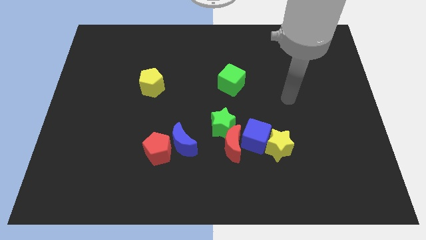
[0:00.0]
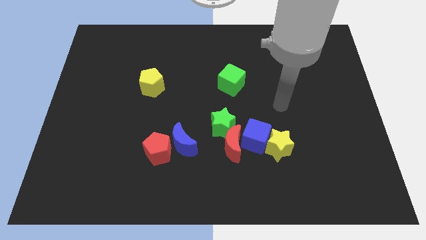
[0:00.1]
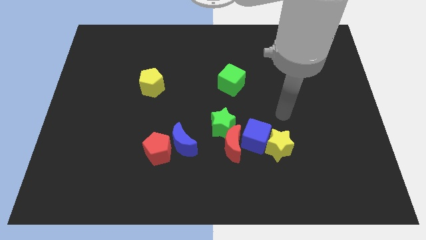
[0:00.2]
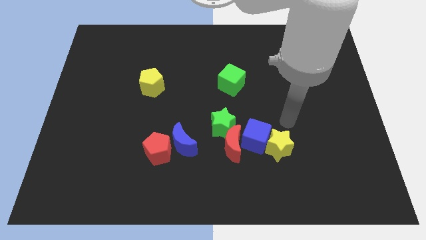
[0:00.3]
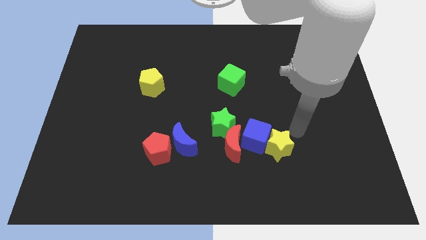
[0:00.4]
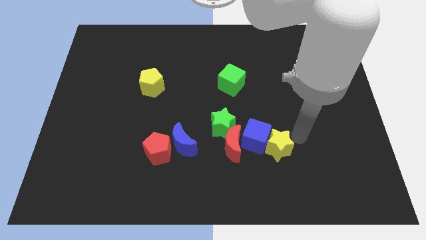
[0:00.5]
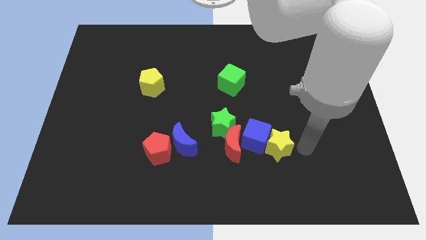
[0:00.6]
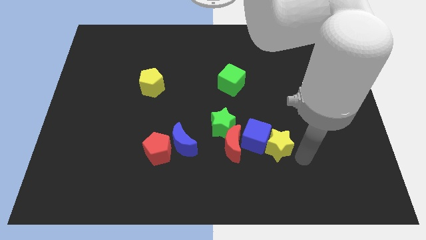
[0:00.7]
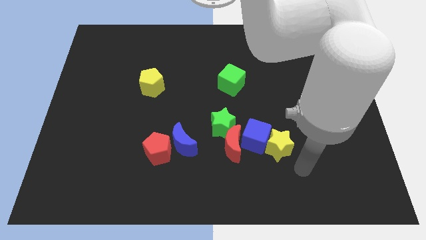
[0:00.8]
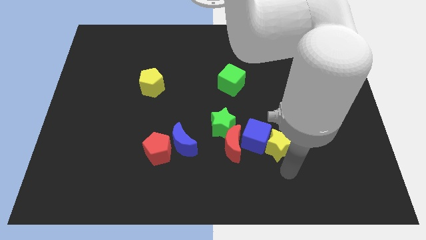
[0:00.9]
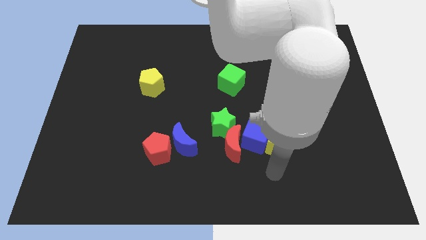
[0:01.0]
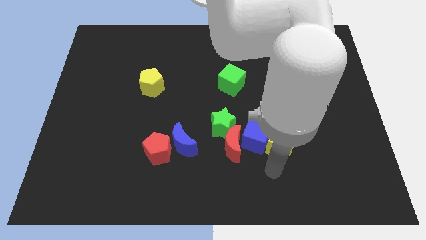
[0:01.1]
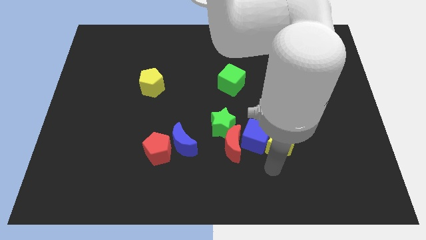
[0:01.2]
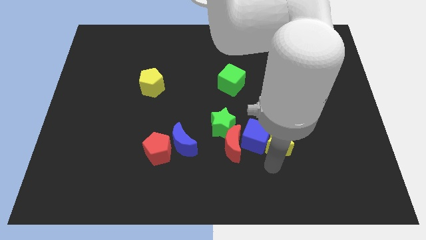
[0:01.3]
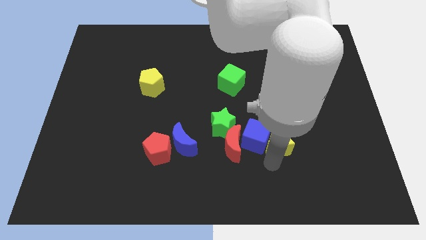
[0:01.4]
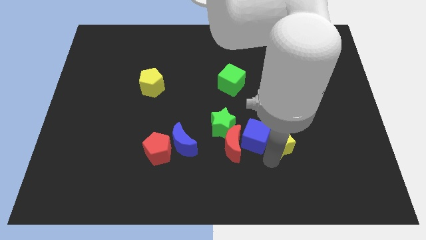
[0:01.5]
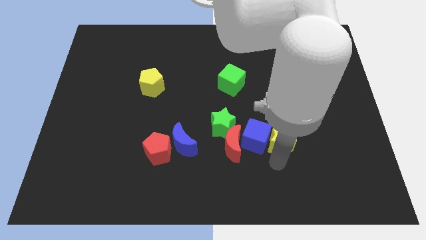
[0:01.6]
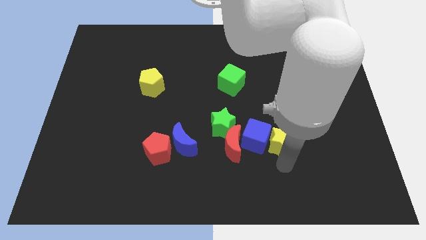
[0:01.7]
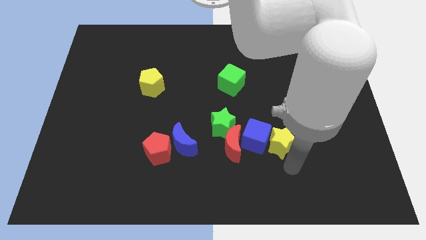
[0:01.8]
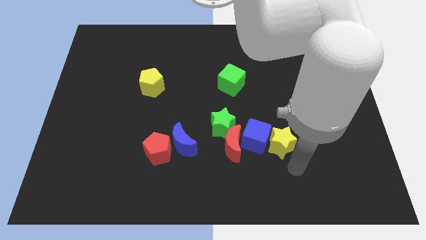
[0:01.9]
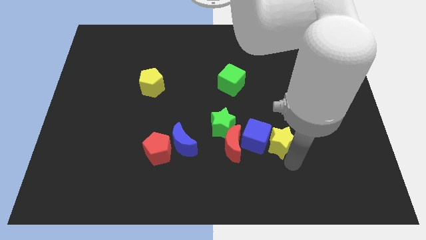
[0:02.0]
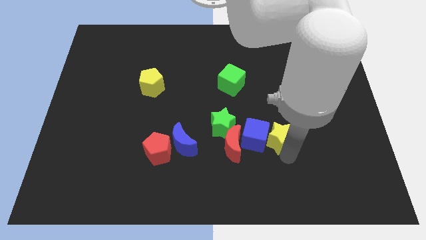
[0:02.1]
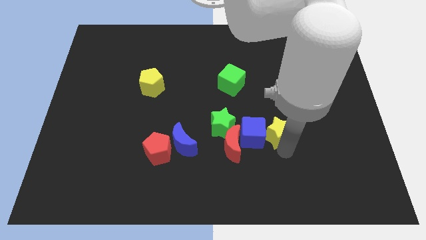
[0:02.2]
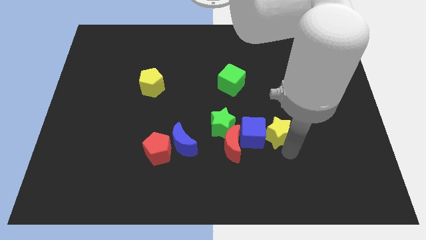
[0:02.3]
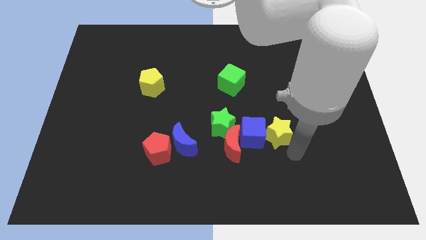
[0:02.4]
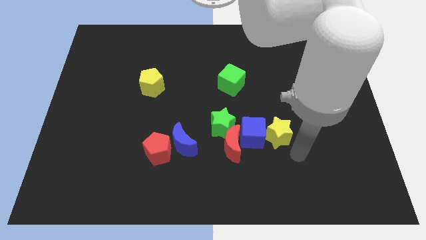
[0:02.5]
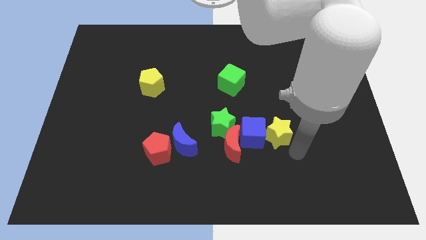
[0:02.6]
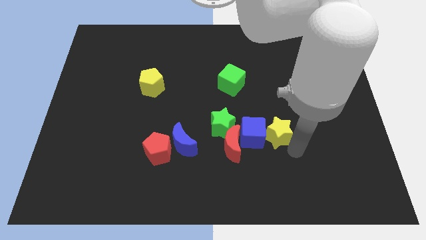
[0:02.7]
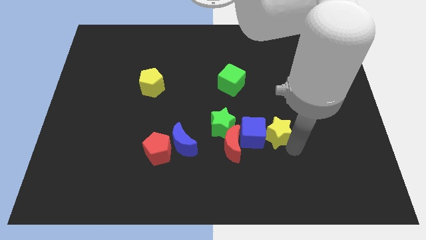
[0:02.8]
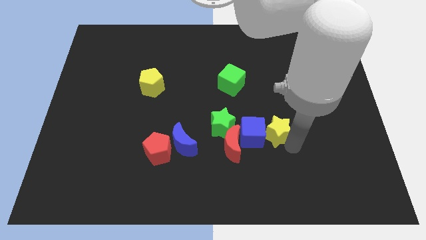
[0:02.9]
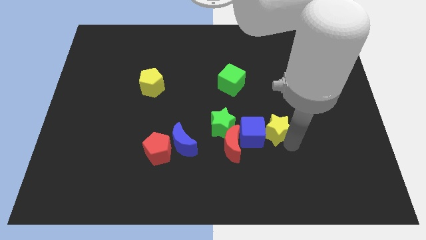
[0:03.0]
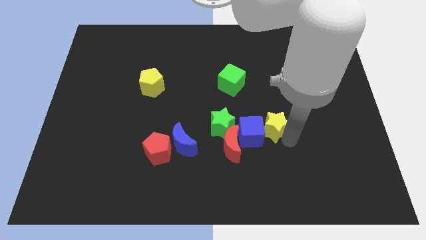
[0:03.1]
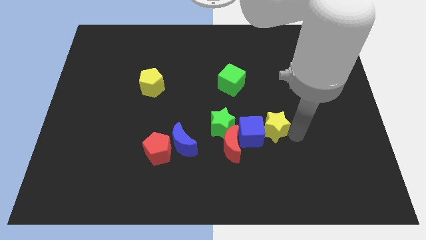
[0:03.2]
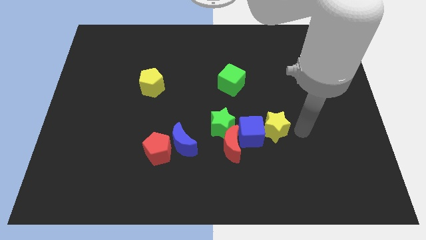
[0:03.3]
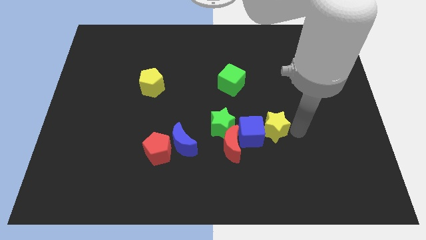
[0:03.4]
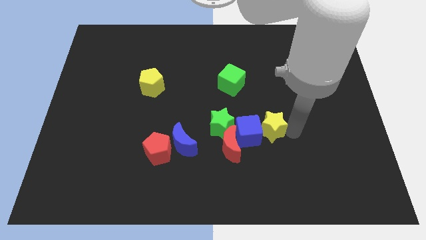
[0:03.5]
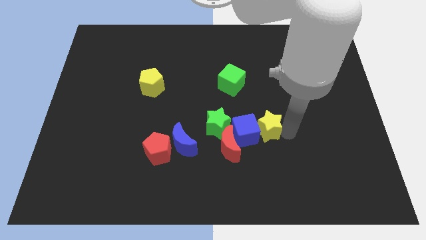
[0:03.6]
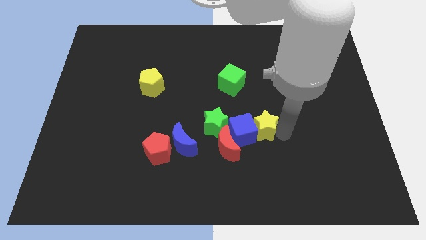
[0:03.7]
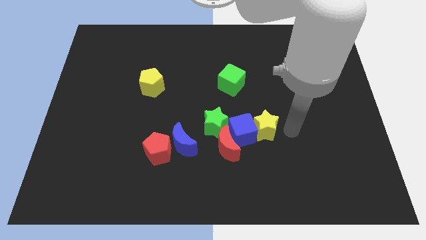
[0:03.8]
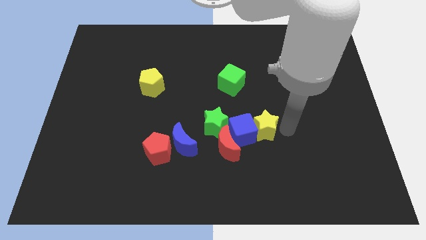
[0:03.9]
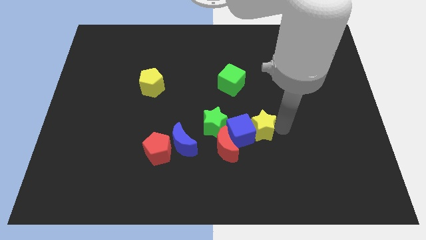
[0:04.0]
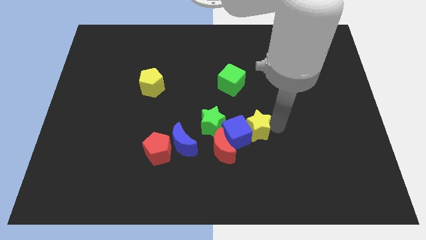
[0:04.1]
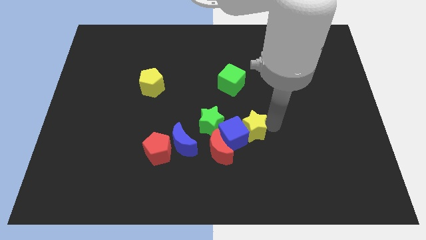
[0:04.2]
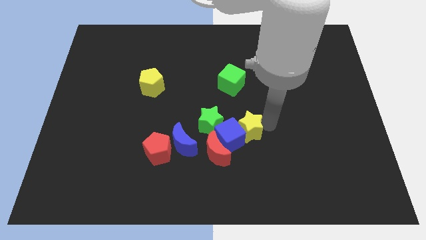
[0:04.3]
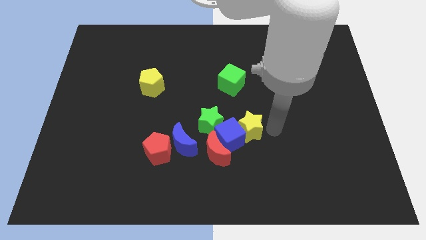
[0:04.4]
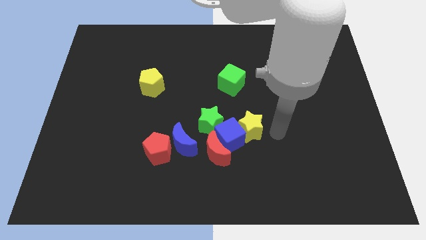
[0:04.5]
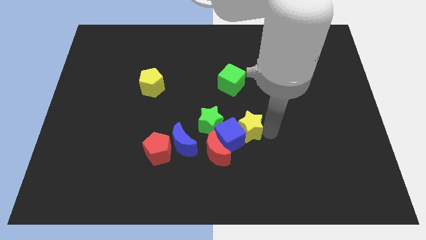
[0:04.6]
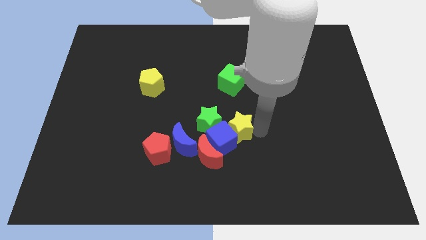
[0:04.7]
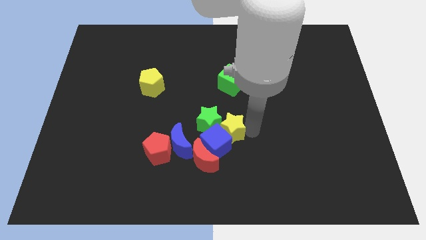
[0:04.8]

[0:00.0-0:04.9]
push the yellow star next to the green star

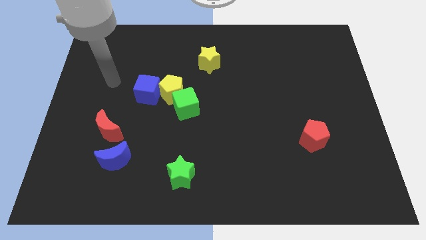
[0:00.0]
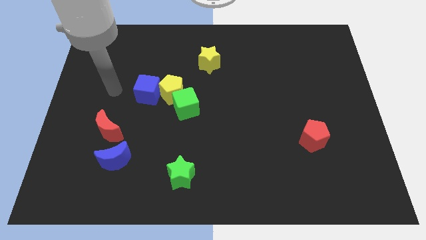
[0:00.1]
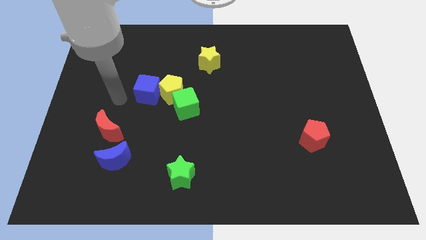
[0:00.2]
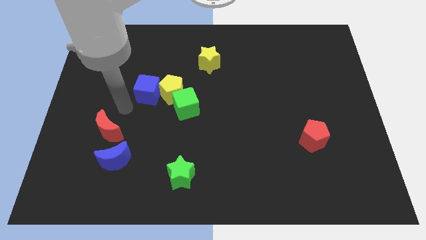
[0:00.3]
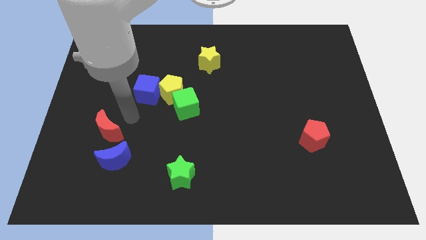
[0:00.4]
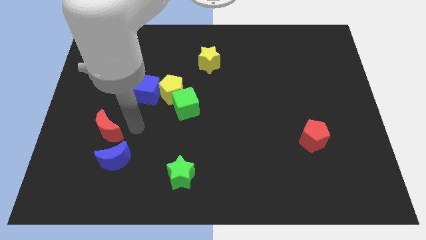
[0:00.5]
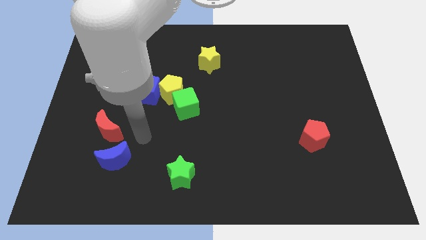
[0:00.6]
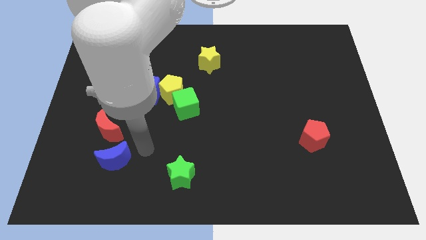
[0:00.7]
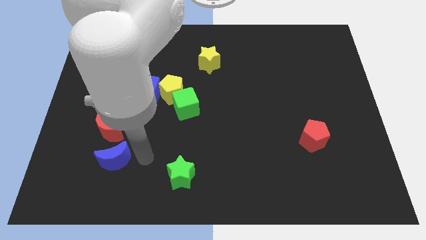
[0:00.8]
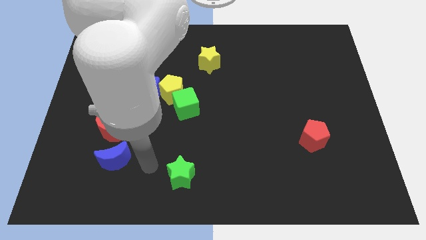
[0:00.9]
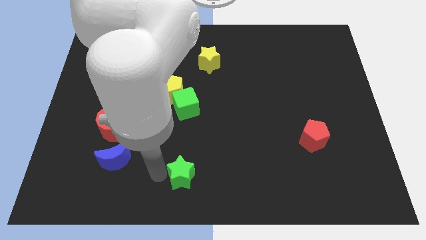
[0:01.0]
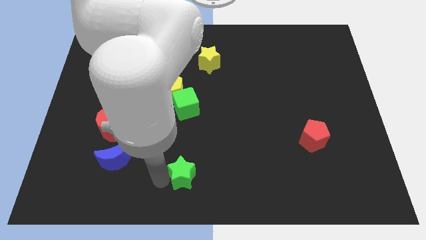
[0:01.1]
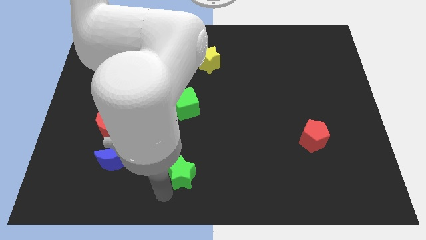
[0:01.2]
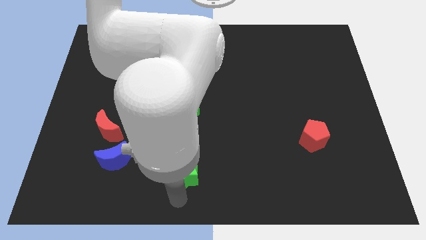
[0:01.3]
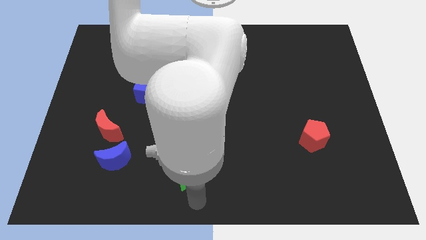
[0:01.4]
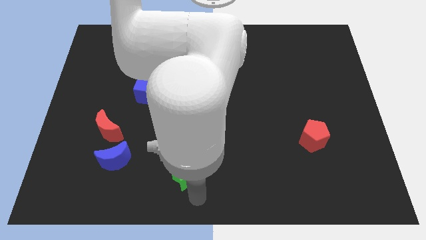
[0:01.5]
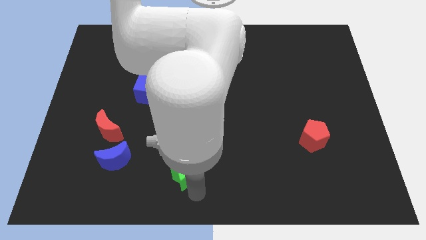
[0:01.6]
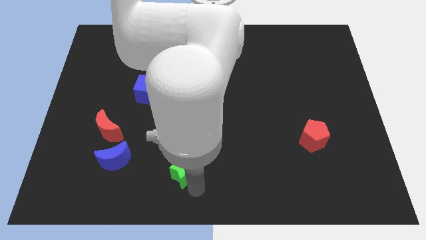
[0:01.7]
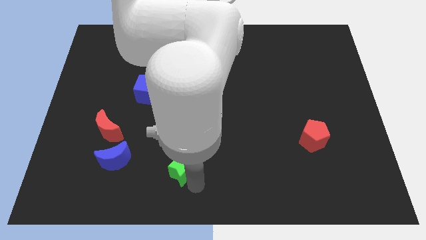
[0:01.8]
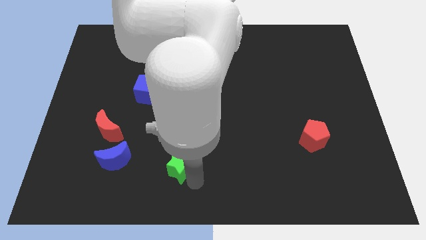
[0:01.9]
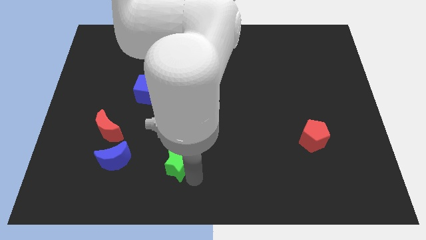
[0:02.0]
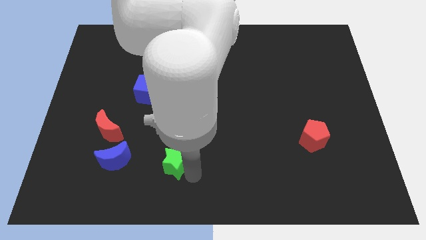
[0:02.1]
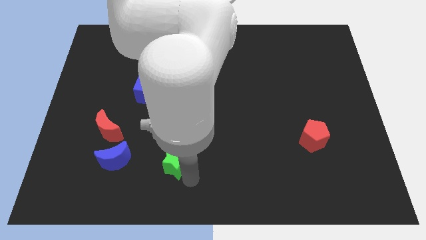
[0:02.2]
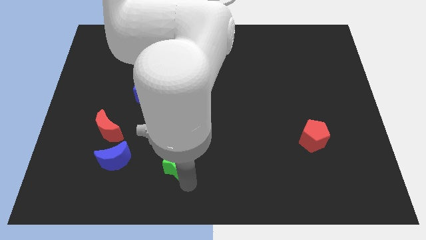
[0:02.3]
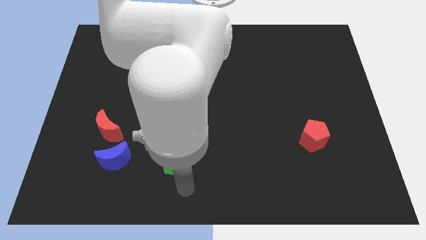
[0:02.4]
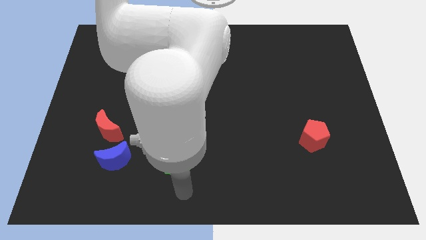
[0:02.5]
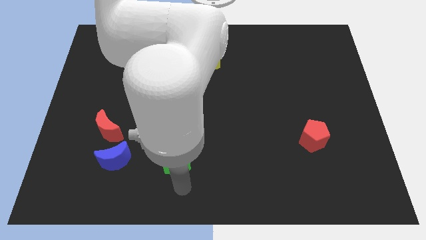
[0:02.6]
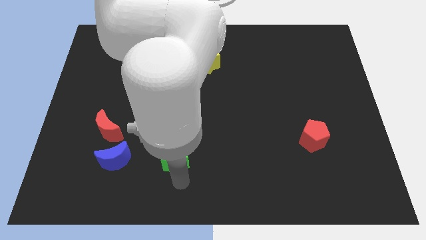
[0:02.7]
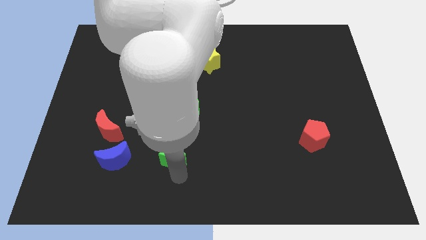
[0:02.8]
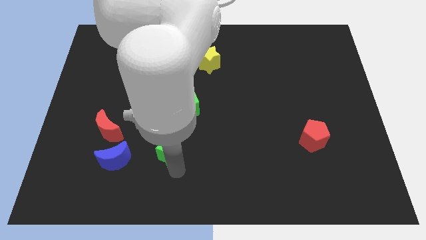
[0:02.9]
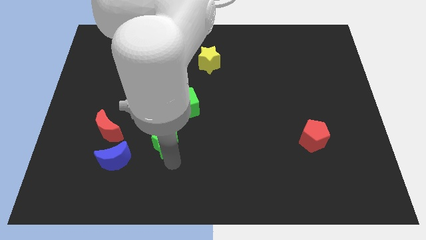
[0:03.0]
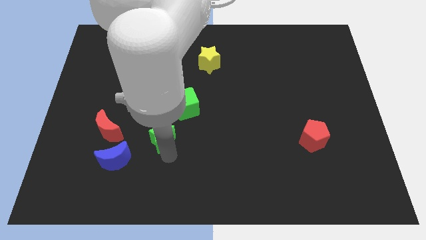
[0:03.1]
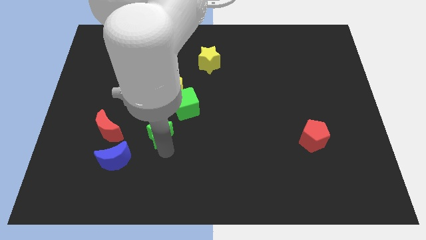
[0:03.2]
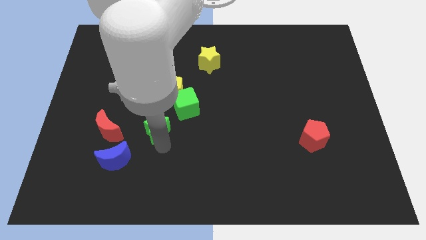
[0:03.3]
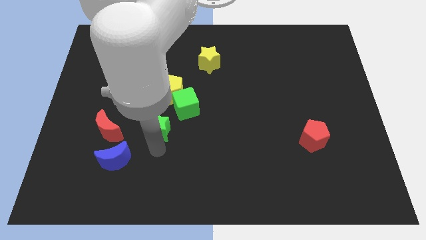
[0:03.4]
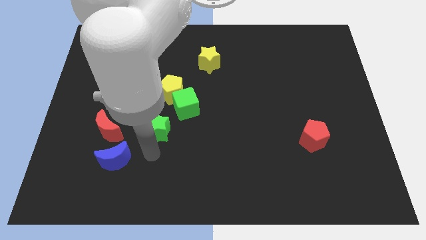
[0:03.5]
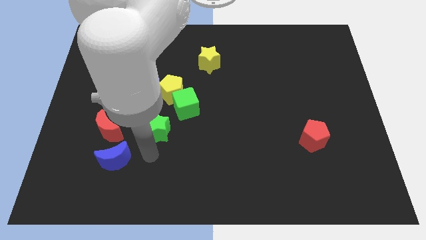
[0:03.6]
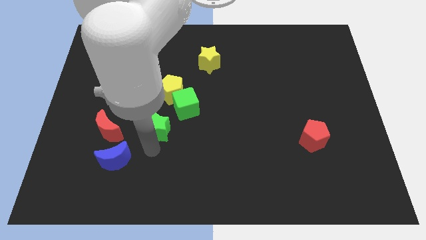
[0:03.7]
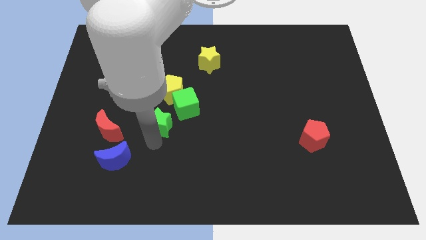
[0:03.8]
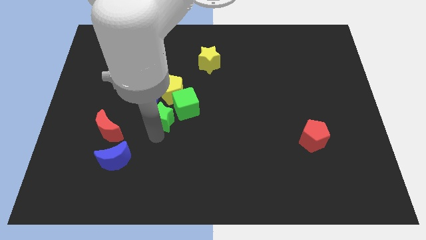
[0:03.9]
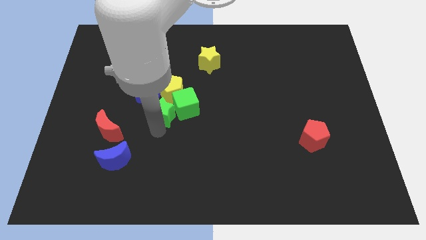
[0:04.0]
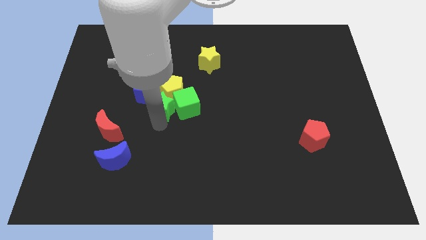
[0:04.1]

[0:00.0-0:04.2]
put the green star next to the yellow pentagon
